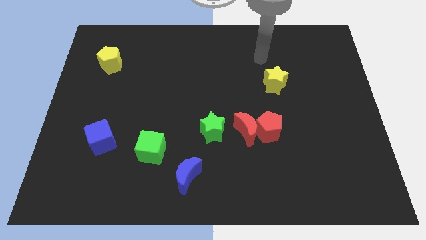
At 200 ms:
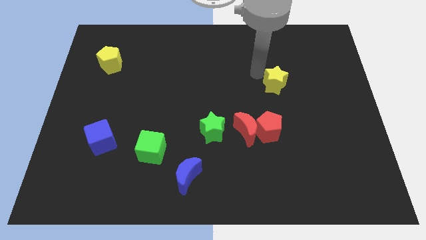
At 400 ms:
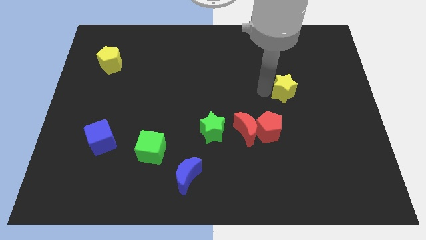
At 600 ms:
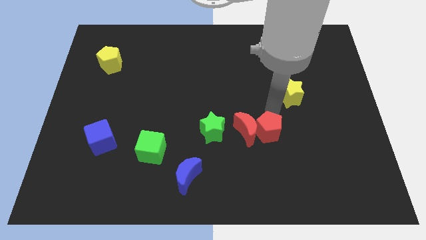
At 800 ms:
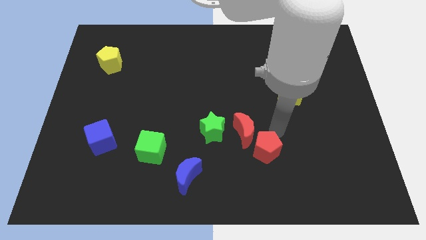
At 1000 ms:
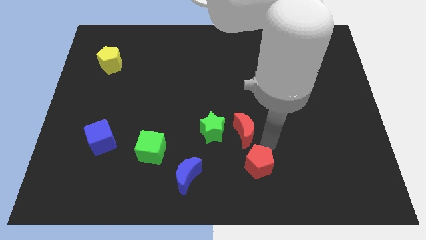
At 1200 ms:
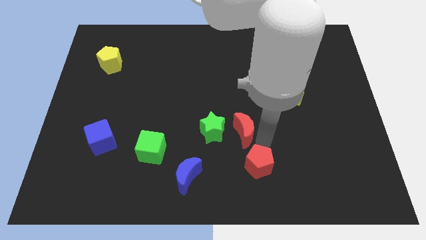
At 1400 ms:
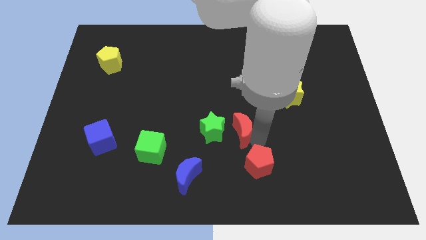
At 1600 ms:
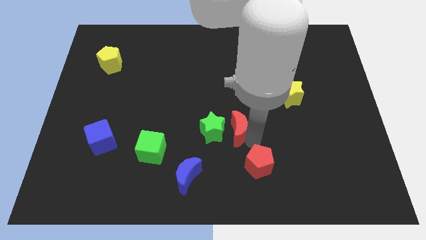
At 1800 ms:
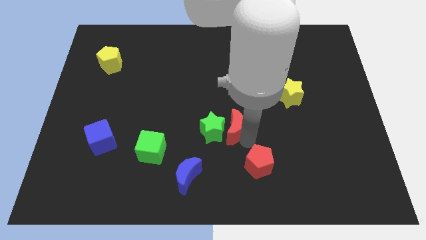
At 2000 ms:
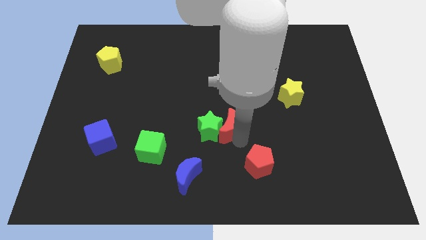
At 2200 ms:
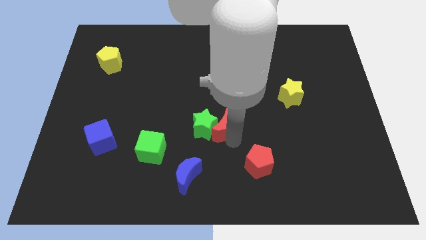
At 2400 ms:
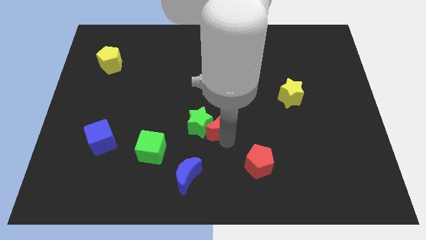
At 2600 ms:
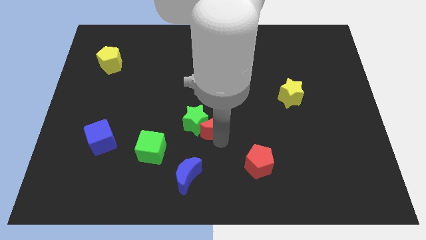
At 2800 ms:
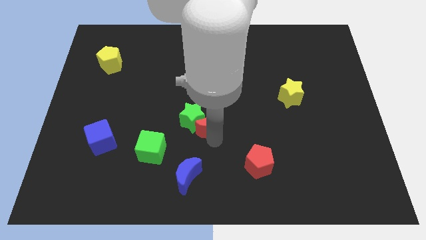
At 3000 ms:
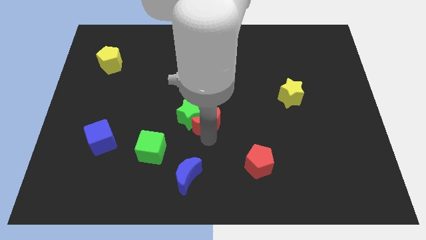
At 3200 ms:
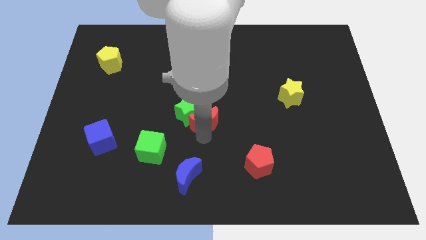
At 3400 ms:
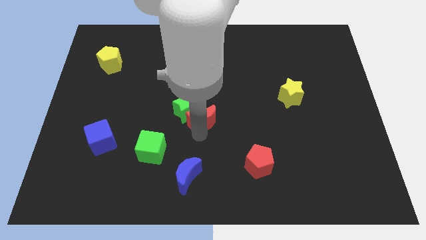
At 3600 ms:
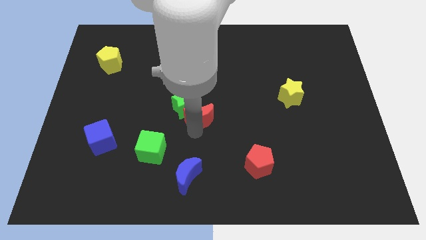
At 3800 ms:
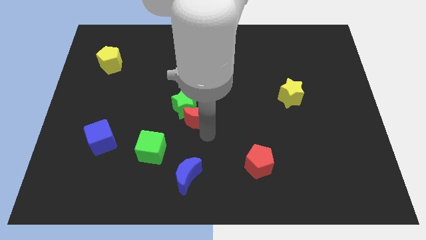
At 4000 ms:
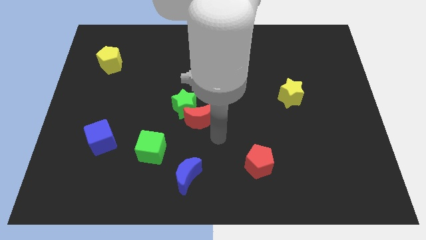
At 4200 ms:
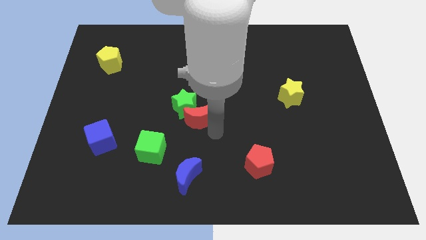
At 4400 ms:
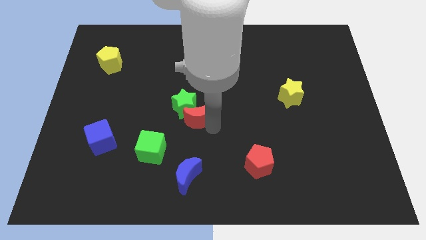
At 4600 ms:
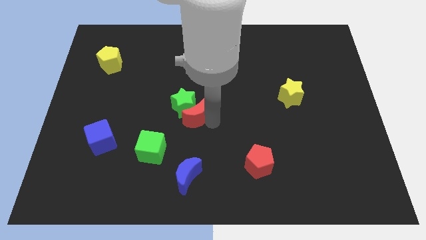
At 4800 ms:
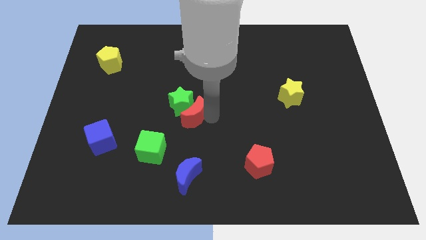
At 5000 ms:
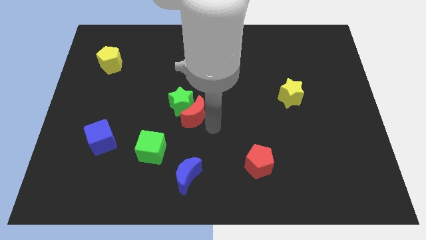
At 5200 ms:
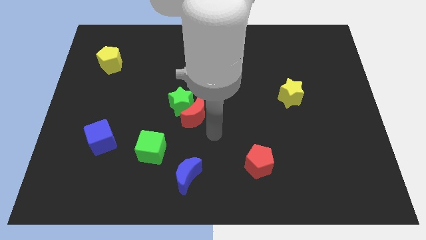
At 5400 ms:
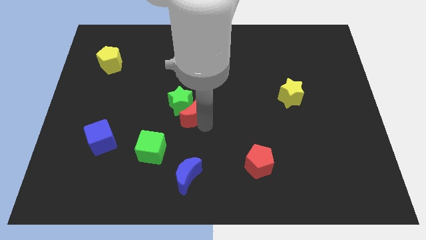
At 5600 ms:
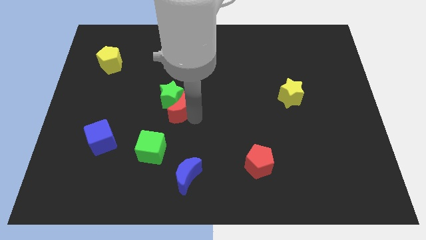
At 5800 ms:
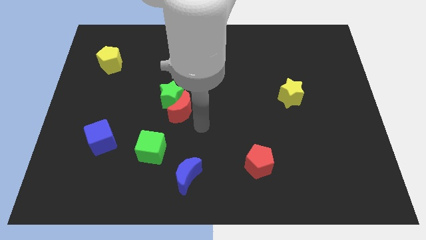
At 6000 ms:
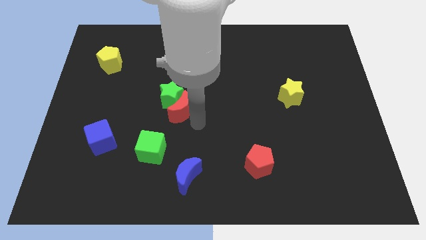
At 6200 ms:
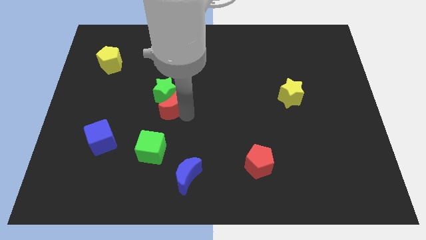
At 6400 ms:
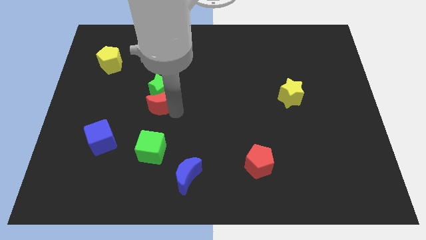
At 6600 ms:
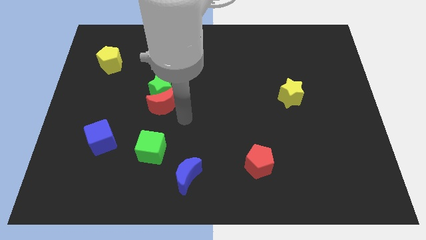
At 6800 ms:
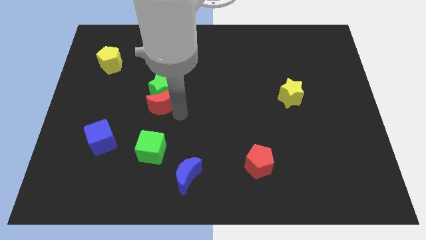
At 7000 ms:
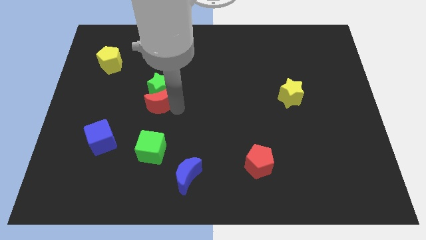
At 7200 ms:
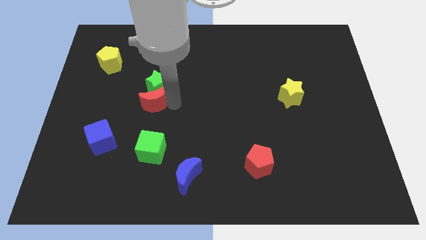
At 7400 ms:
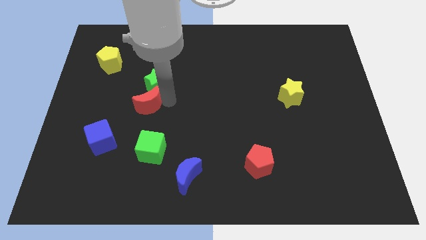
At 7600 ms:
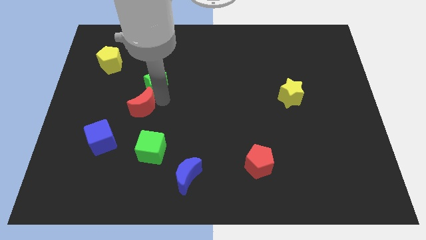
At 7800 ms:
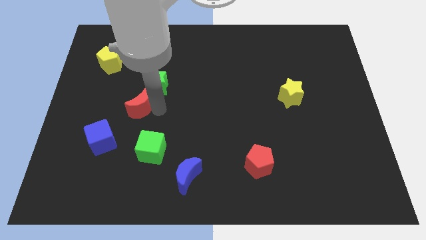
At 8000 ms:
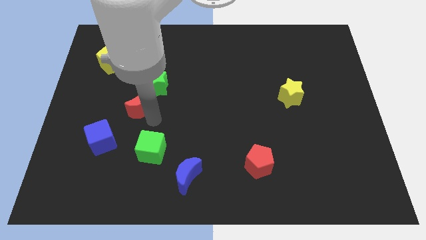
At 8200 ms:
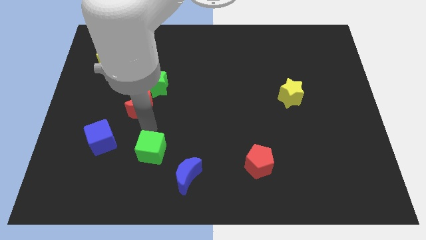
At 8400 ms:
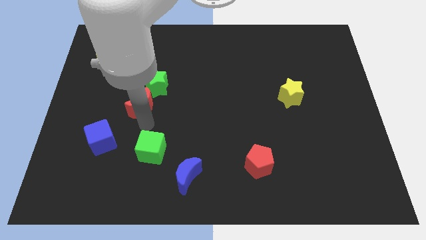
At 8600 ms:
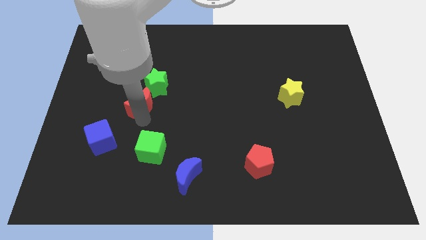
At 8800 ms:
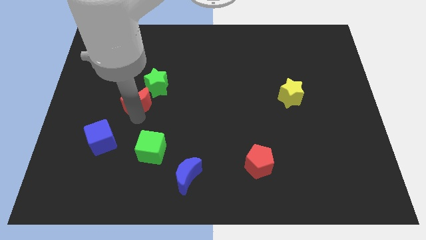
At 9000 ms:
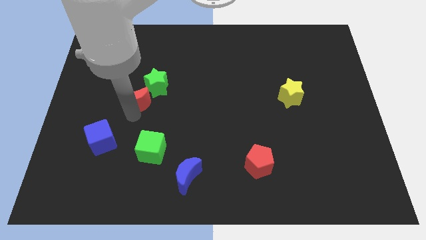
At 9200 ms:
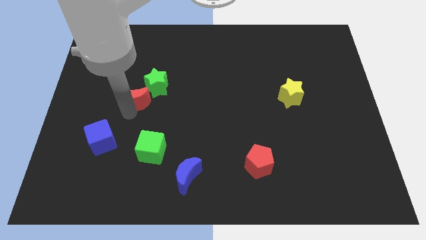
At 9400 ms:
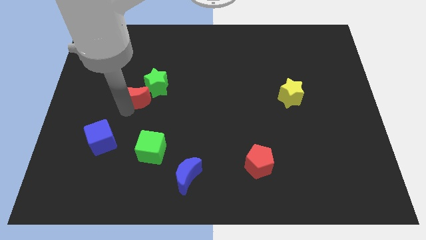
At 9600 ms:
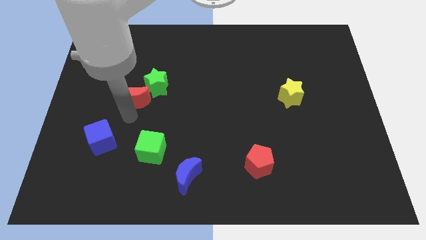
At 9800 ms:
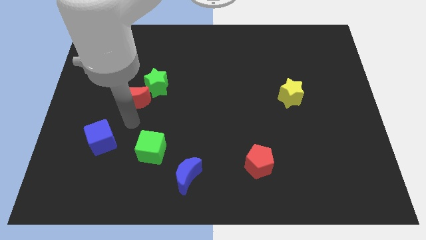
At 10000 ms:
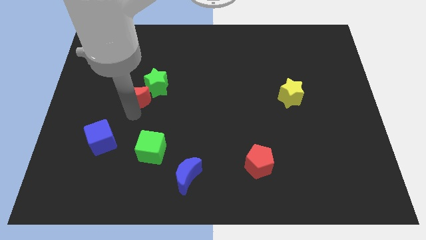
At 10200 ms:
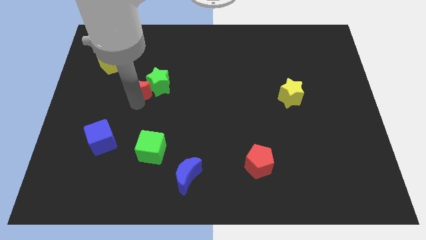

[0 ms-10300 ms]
move the red moon diagonally down and to the right of the yellow pentagon

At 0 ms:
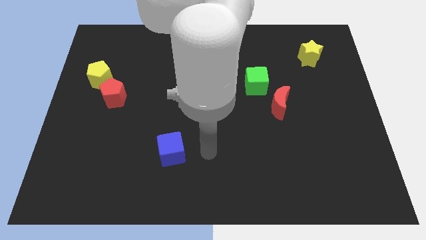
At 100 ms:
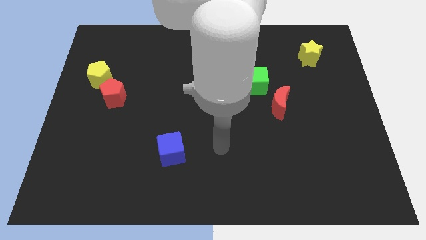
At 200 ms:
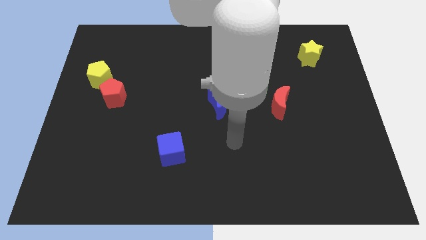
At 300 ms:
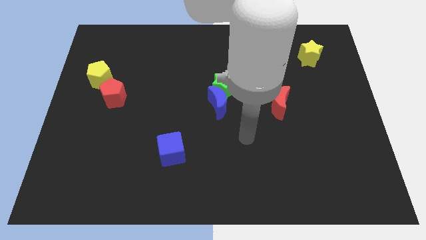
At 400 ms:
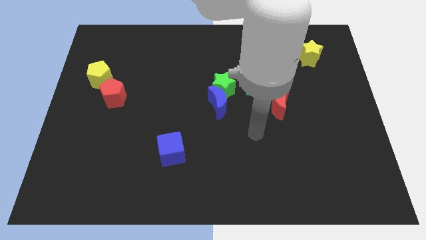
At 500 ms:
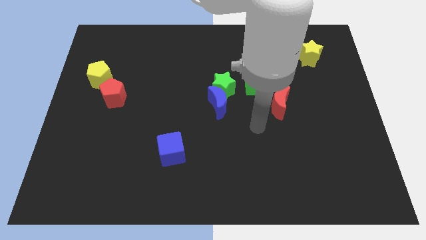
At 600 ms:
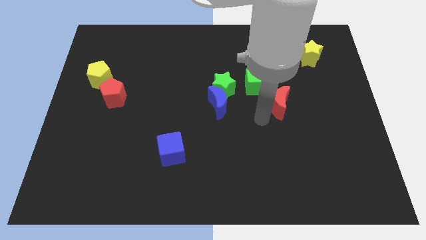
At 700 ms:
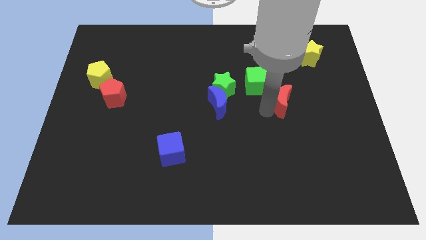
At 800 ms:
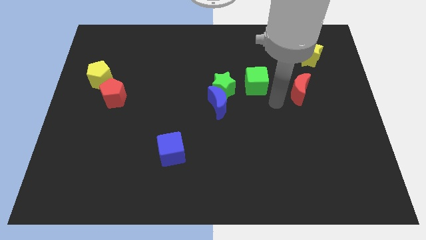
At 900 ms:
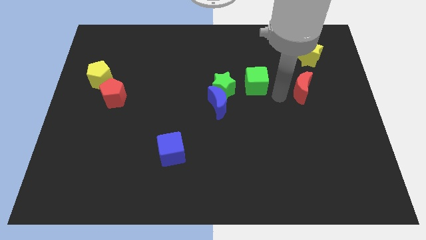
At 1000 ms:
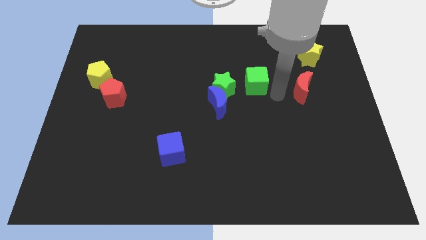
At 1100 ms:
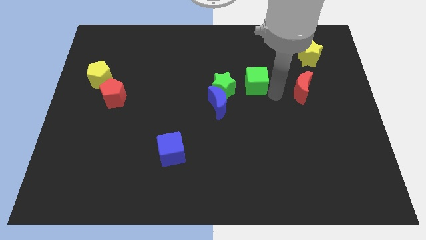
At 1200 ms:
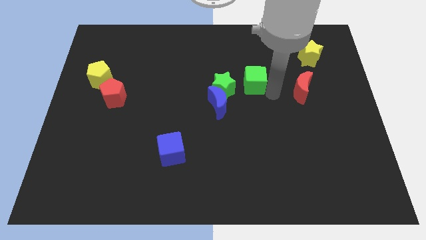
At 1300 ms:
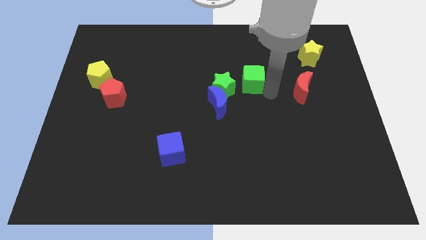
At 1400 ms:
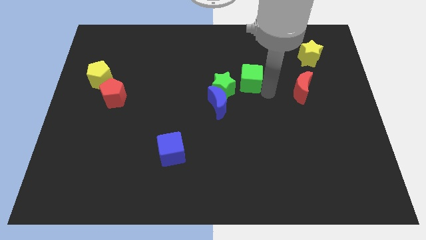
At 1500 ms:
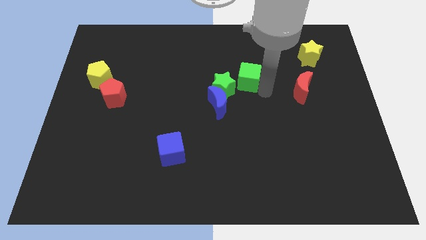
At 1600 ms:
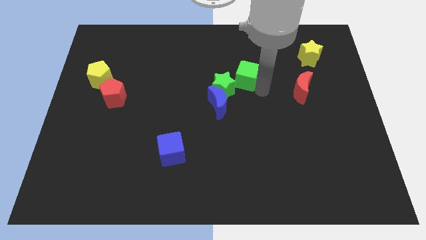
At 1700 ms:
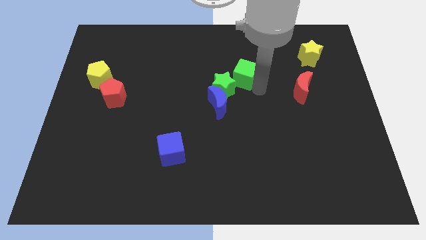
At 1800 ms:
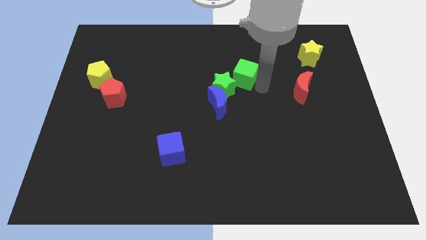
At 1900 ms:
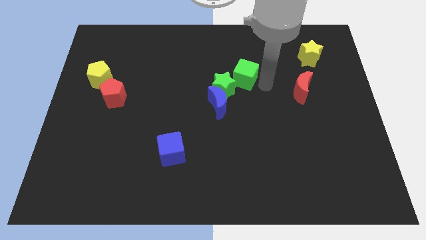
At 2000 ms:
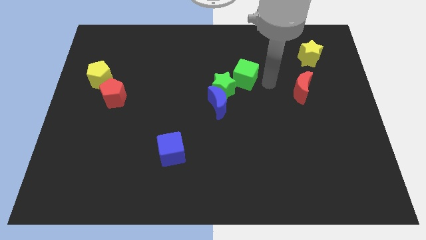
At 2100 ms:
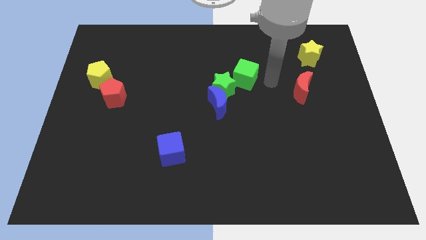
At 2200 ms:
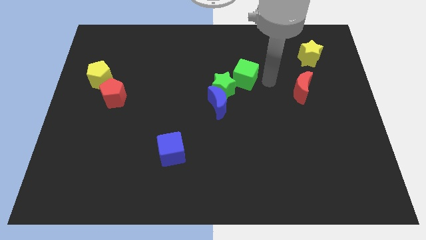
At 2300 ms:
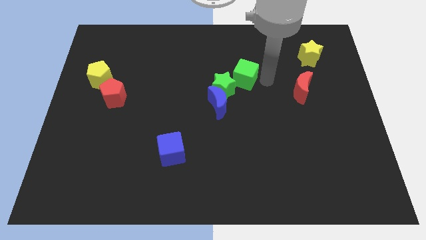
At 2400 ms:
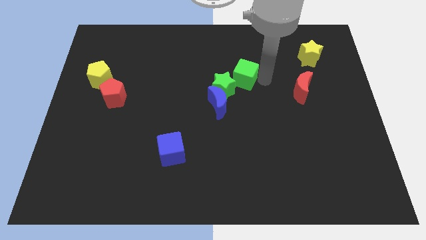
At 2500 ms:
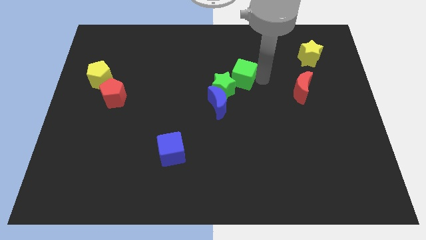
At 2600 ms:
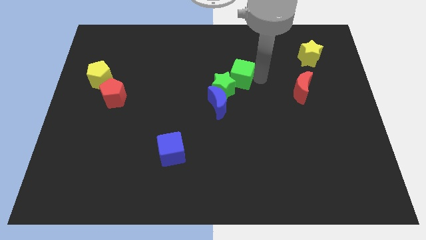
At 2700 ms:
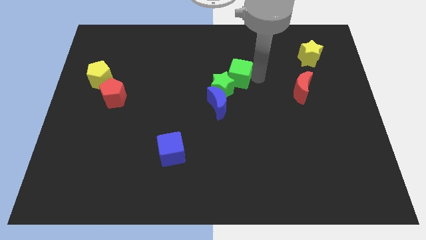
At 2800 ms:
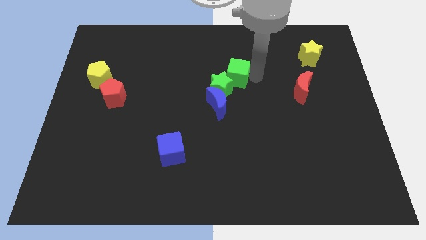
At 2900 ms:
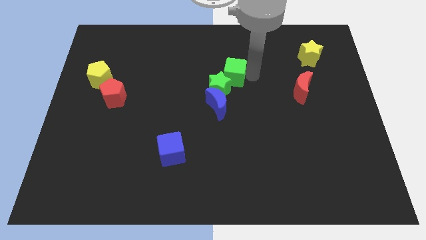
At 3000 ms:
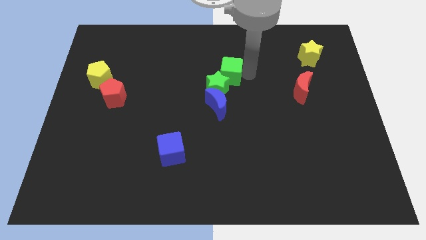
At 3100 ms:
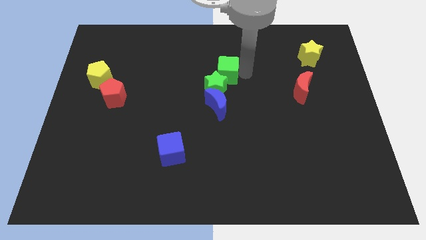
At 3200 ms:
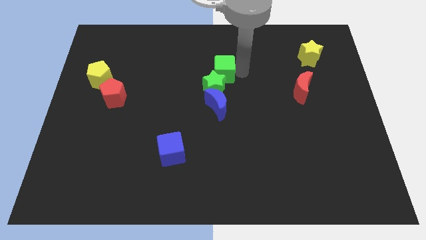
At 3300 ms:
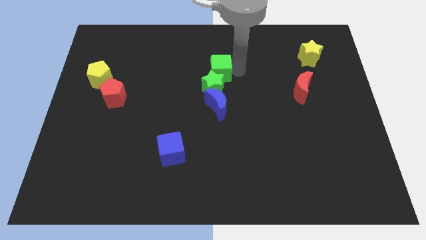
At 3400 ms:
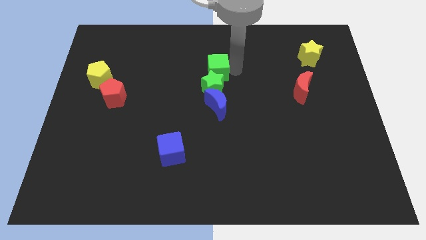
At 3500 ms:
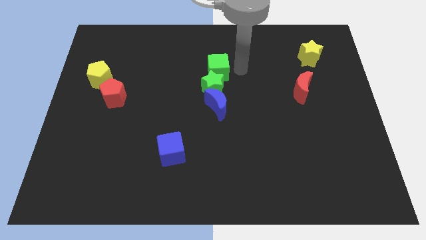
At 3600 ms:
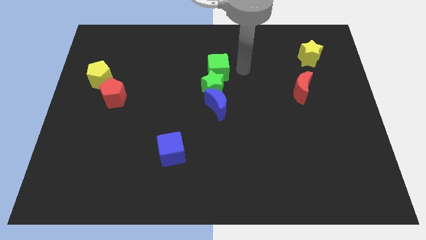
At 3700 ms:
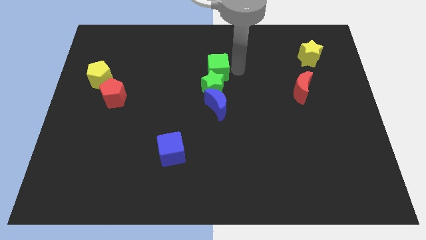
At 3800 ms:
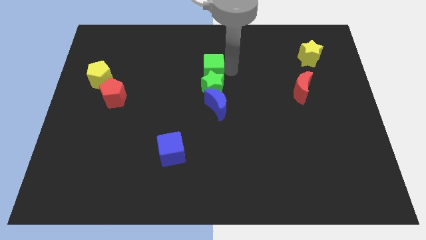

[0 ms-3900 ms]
slide the green cube to the top left of the green star
